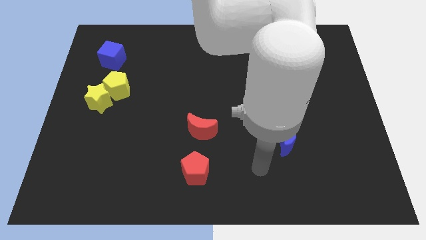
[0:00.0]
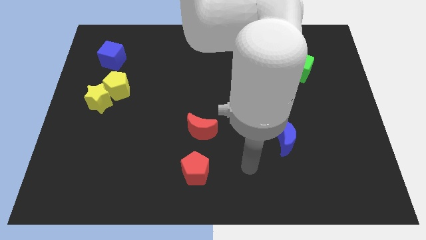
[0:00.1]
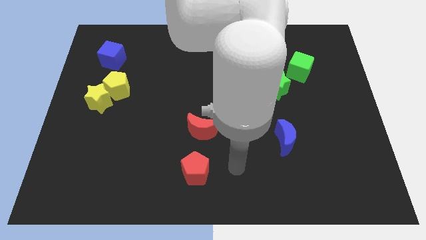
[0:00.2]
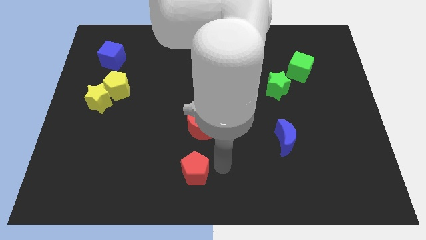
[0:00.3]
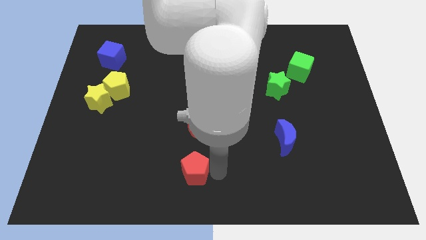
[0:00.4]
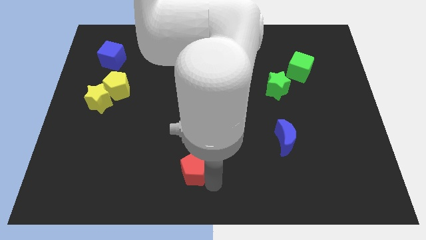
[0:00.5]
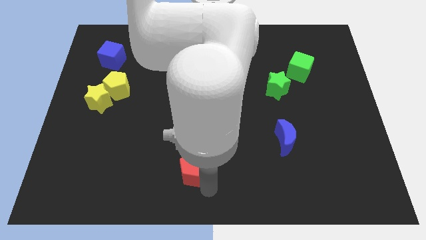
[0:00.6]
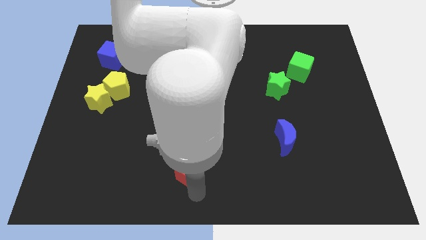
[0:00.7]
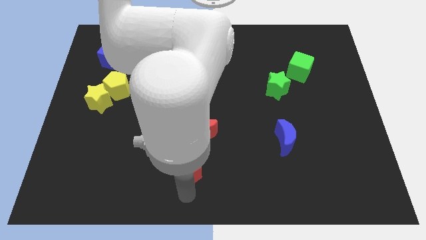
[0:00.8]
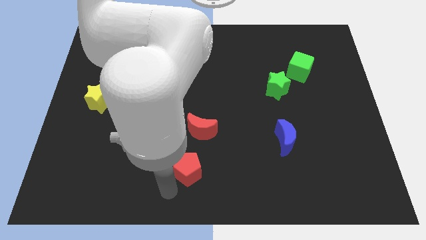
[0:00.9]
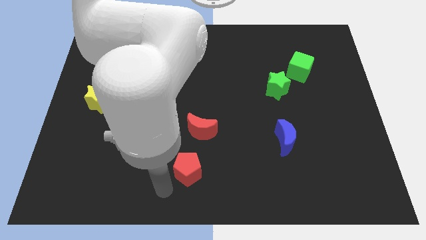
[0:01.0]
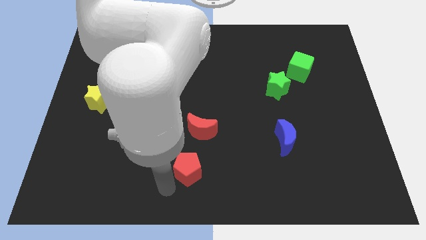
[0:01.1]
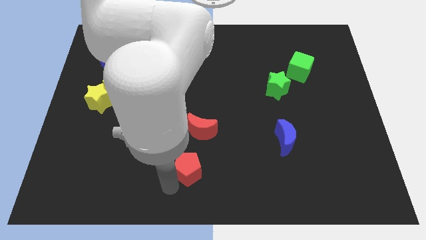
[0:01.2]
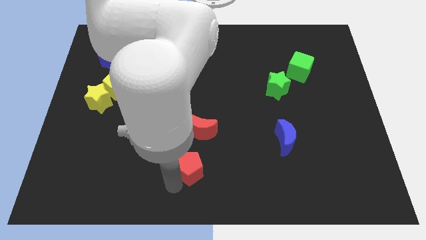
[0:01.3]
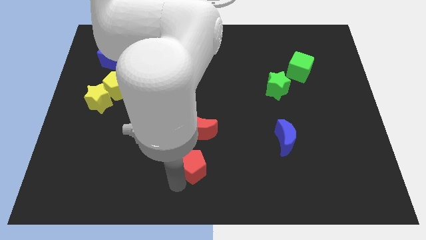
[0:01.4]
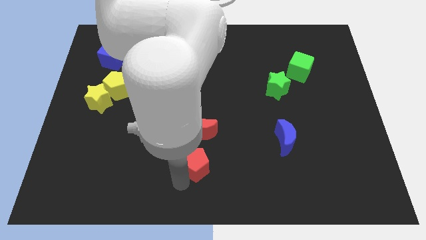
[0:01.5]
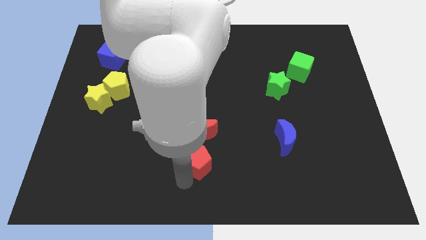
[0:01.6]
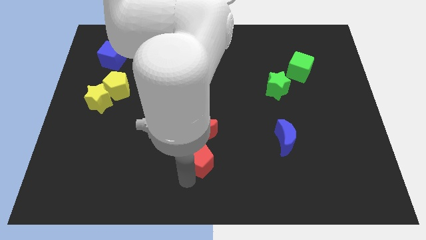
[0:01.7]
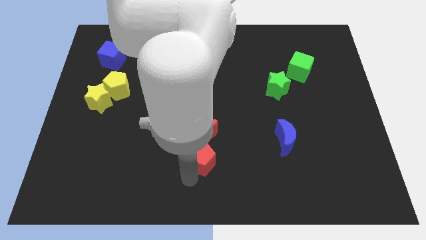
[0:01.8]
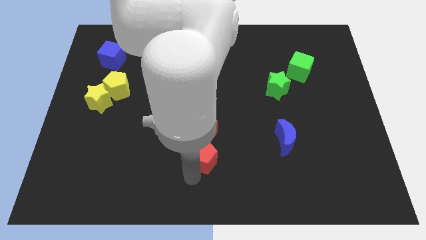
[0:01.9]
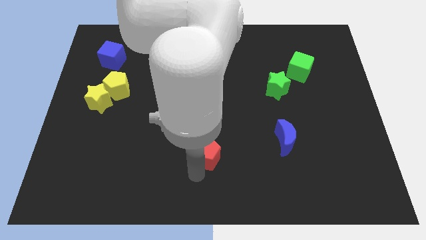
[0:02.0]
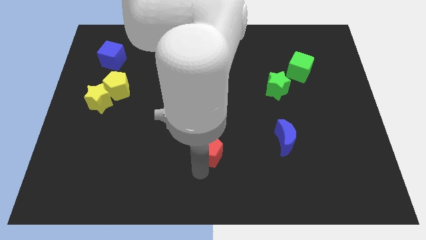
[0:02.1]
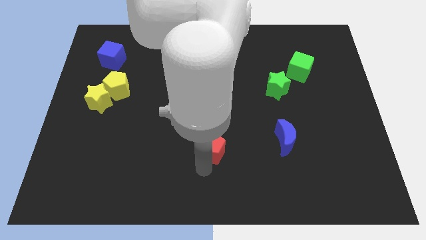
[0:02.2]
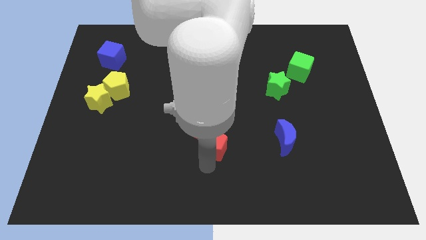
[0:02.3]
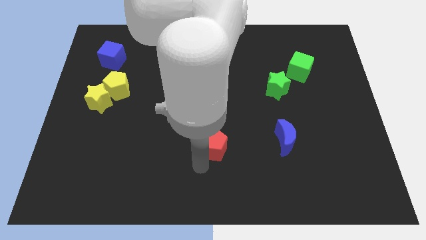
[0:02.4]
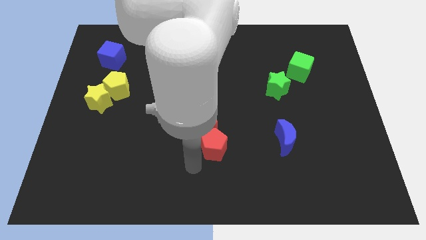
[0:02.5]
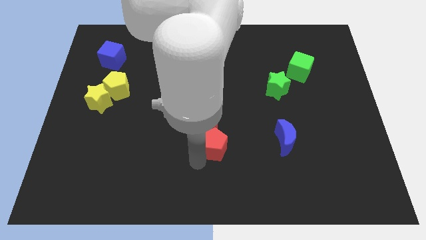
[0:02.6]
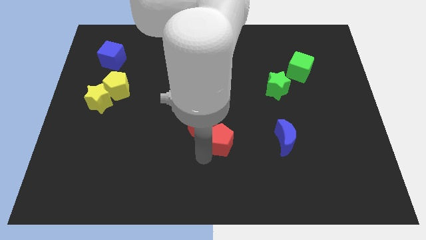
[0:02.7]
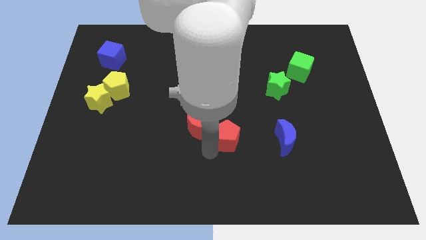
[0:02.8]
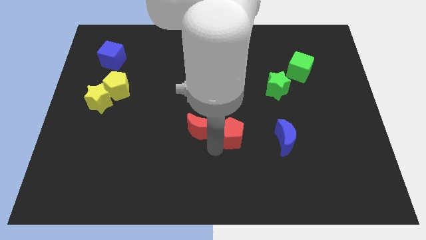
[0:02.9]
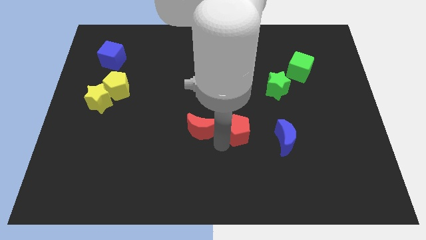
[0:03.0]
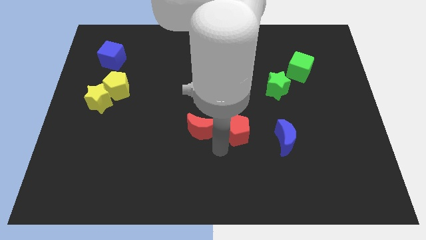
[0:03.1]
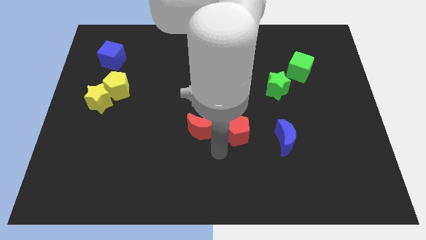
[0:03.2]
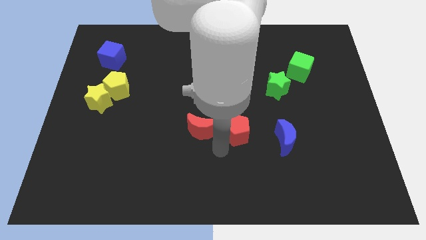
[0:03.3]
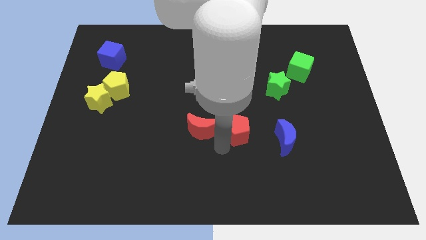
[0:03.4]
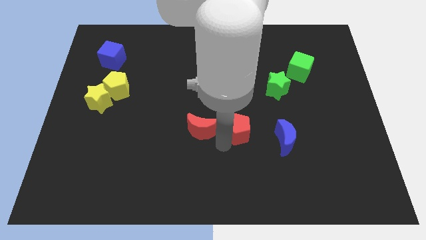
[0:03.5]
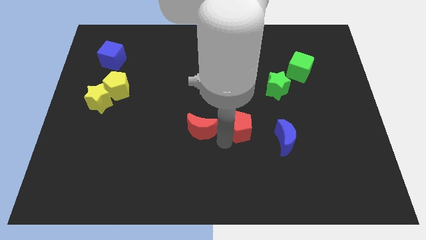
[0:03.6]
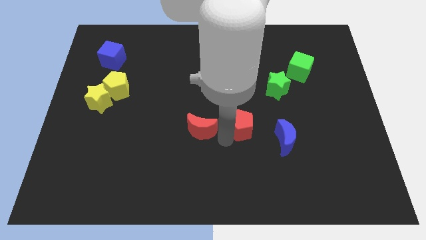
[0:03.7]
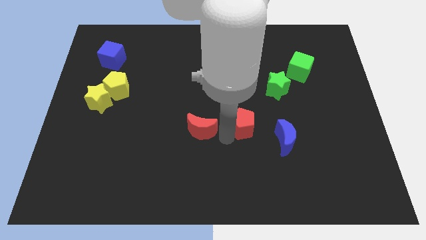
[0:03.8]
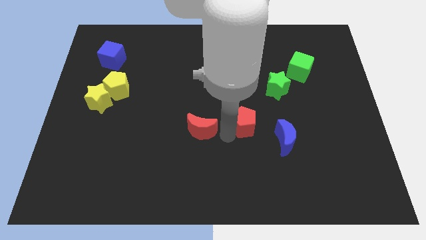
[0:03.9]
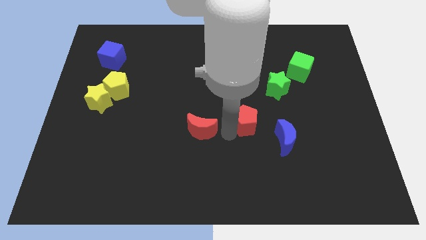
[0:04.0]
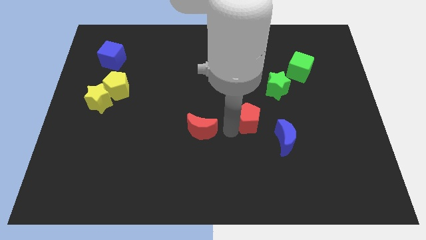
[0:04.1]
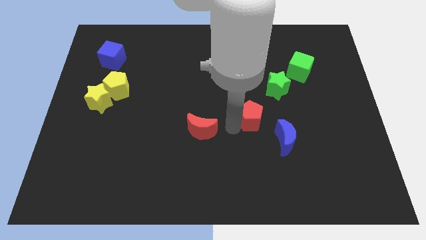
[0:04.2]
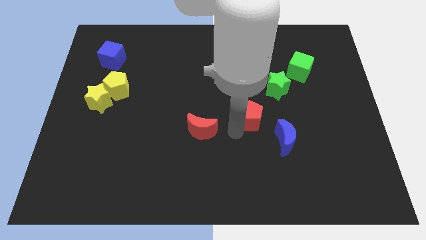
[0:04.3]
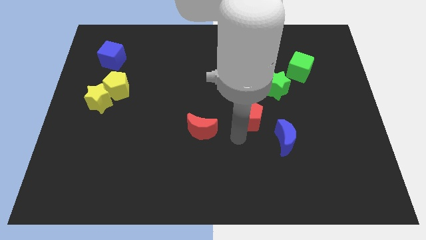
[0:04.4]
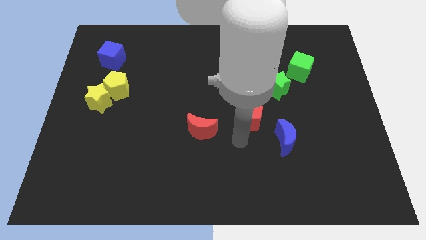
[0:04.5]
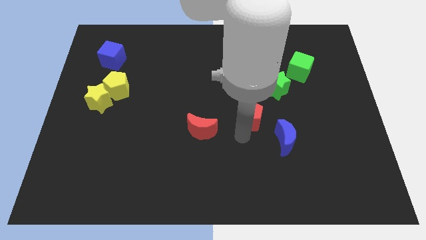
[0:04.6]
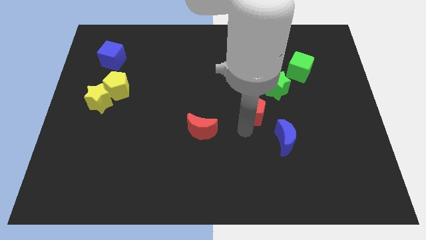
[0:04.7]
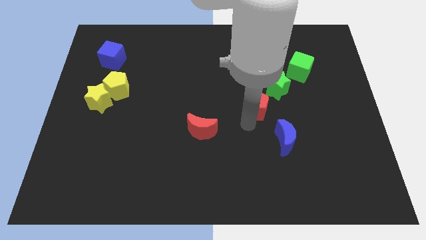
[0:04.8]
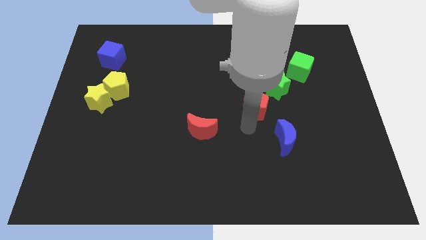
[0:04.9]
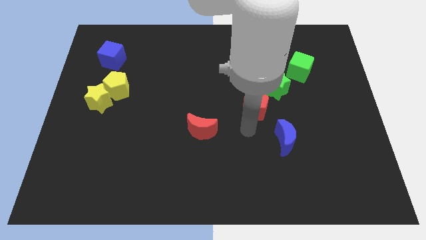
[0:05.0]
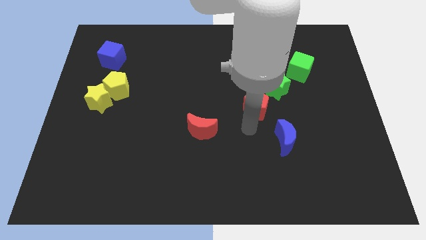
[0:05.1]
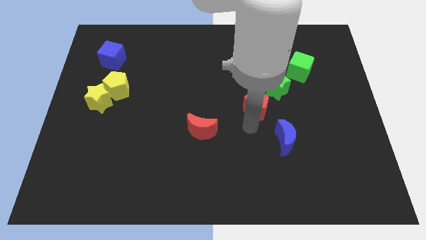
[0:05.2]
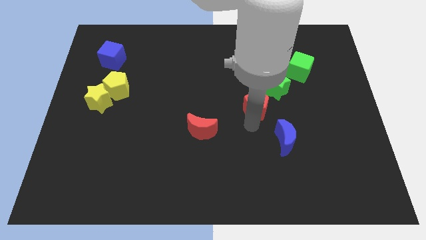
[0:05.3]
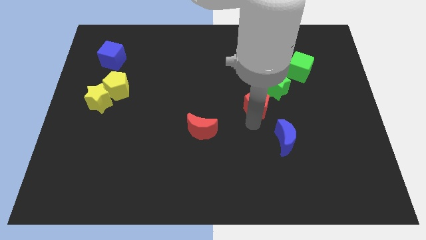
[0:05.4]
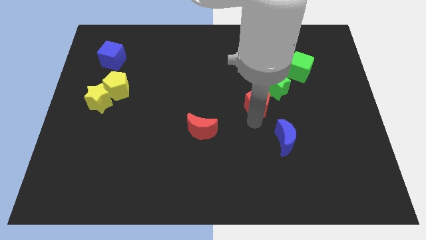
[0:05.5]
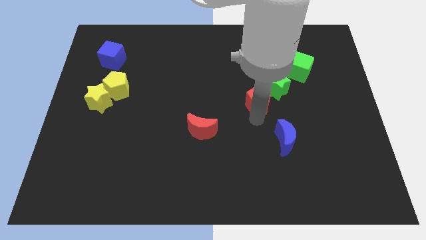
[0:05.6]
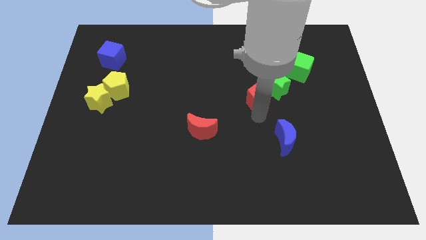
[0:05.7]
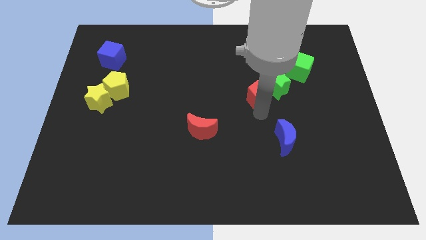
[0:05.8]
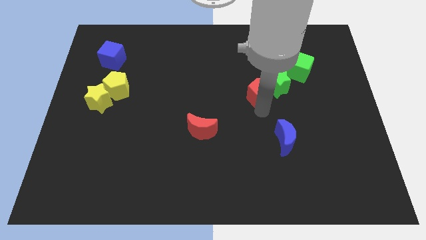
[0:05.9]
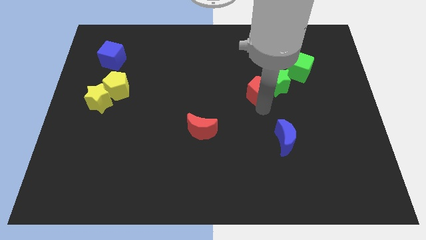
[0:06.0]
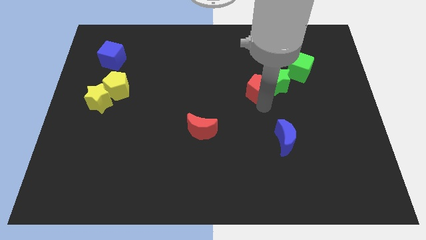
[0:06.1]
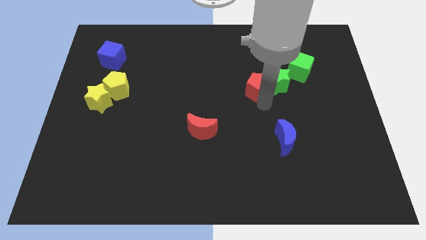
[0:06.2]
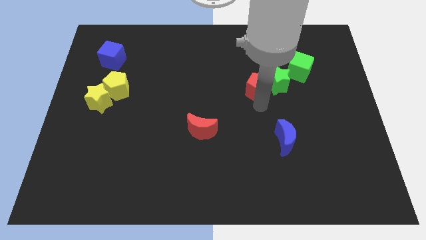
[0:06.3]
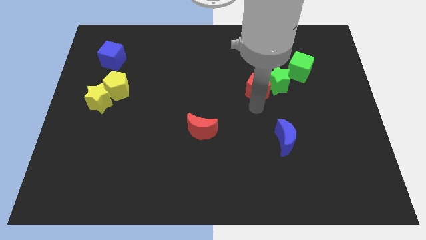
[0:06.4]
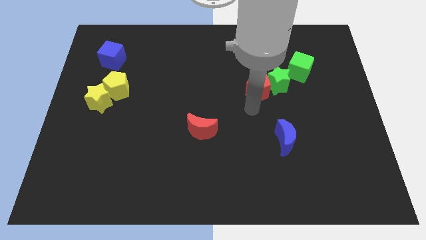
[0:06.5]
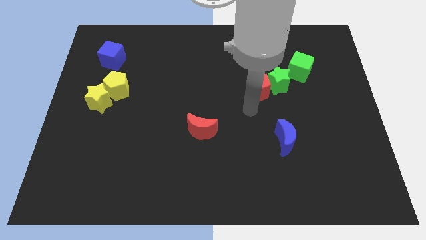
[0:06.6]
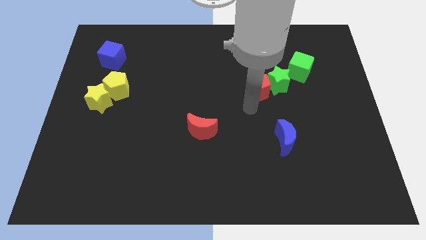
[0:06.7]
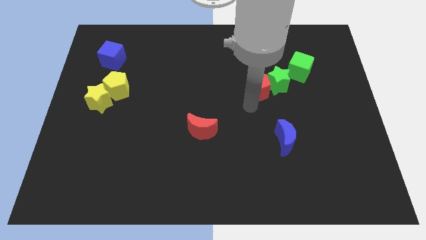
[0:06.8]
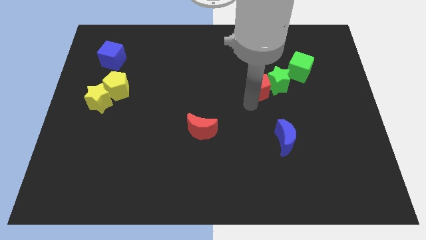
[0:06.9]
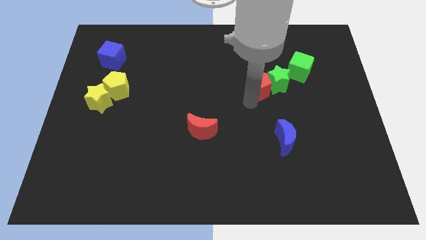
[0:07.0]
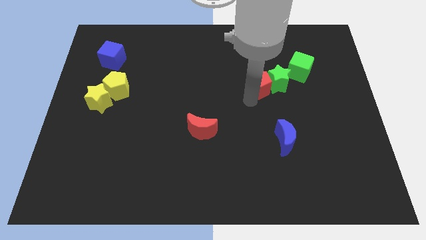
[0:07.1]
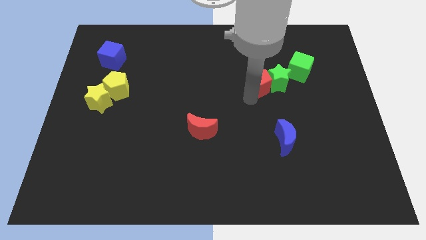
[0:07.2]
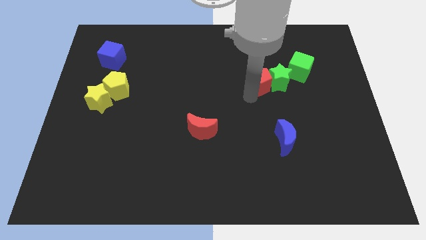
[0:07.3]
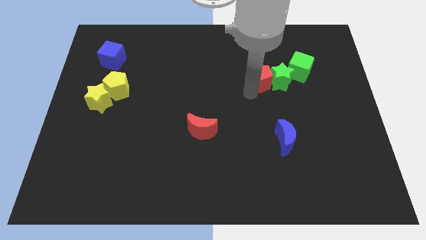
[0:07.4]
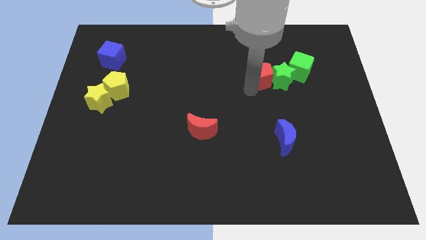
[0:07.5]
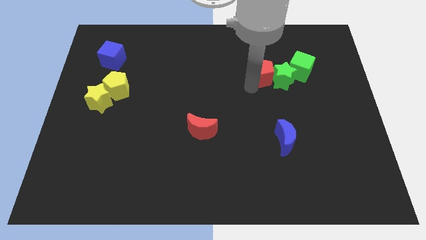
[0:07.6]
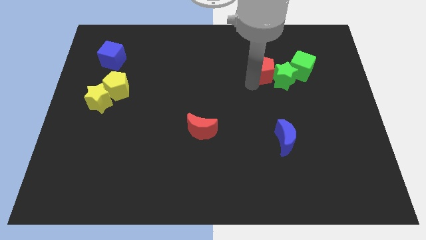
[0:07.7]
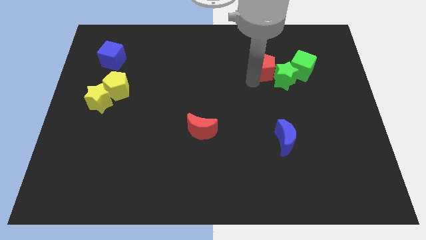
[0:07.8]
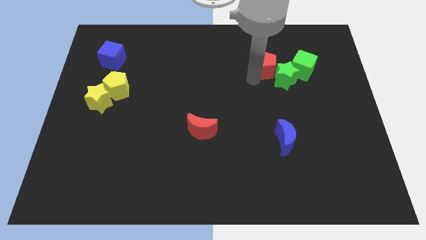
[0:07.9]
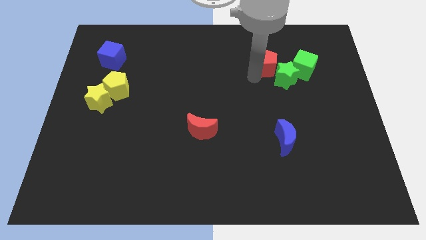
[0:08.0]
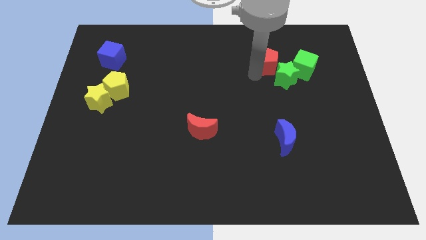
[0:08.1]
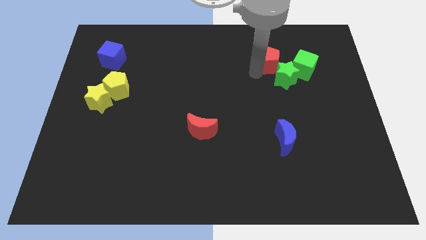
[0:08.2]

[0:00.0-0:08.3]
slide the red pentagon to the top left of the green cube
